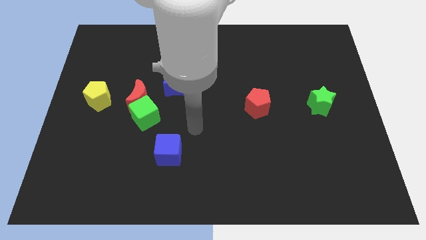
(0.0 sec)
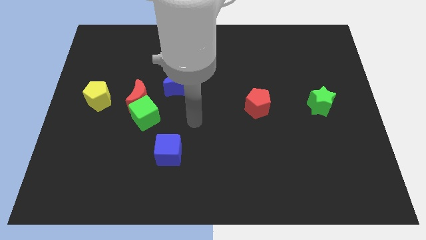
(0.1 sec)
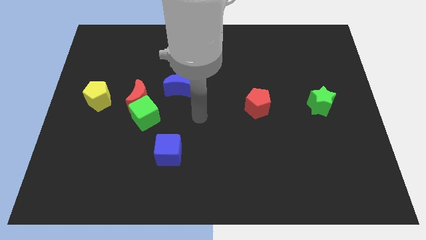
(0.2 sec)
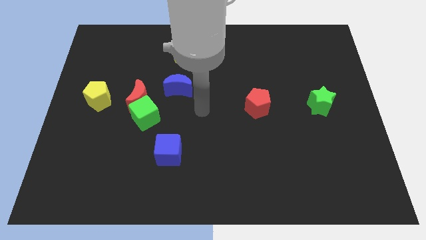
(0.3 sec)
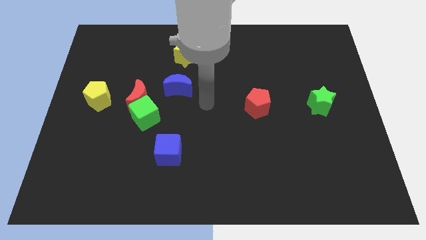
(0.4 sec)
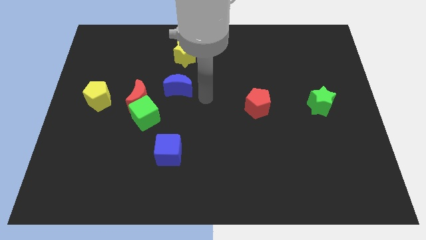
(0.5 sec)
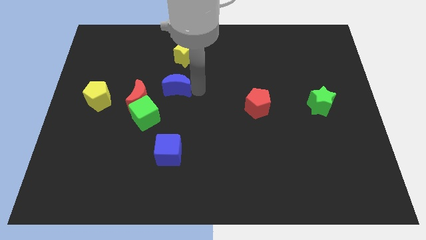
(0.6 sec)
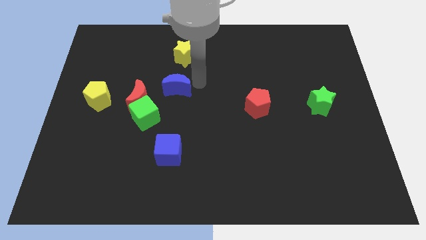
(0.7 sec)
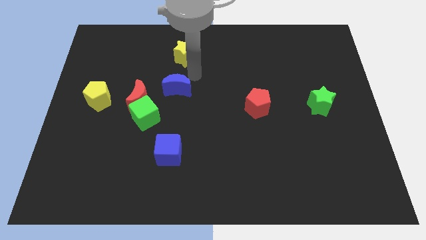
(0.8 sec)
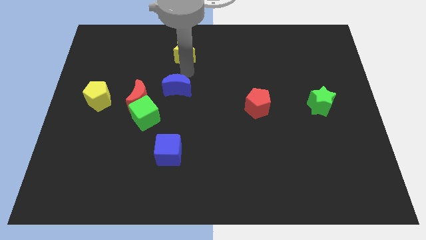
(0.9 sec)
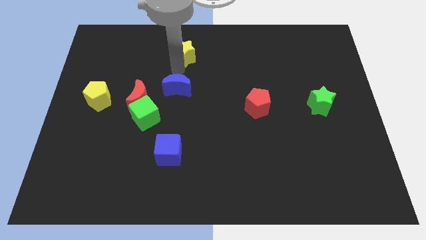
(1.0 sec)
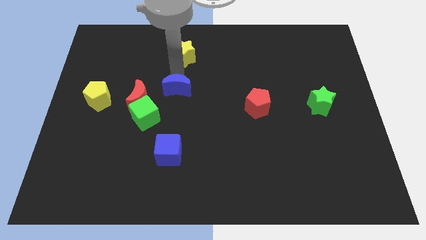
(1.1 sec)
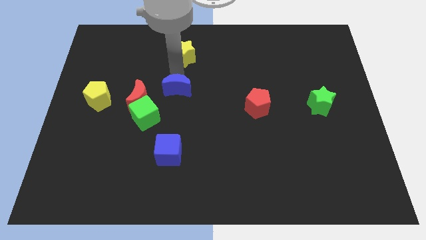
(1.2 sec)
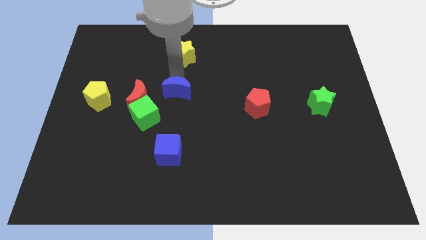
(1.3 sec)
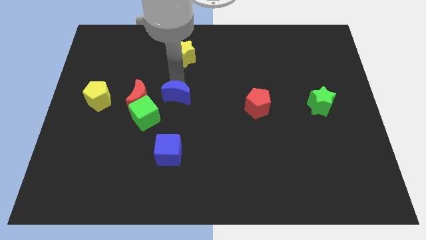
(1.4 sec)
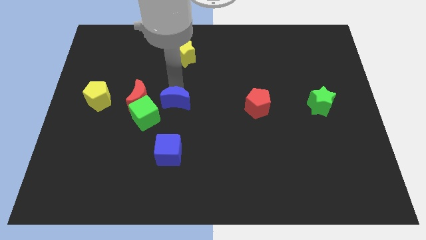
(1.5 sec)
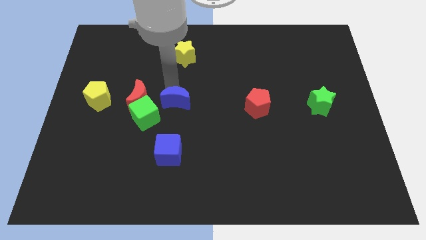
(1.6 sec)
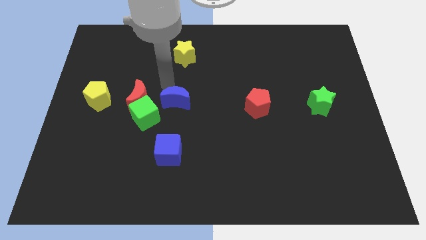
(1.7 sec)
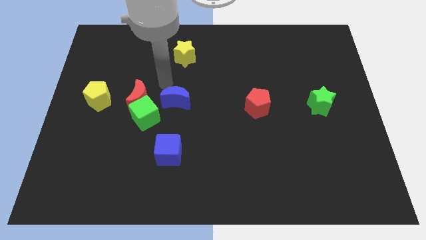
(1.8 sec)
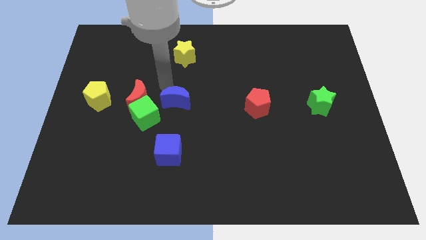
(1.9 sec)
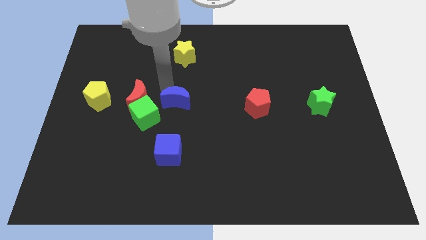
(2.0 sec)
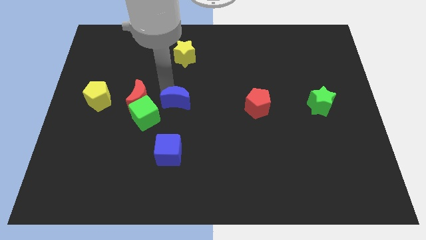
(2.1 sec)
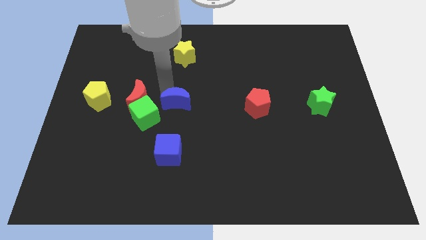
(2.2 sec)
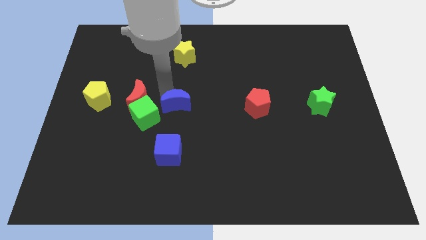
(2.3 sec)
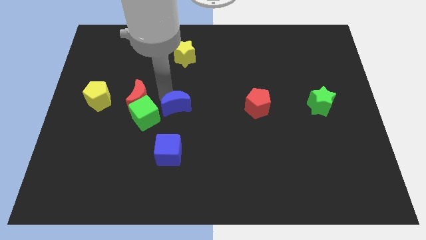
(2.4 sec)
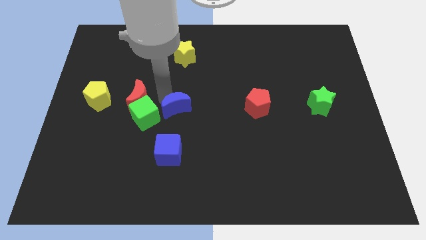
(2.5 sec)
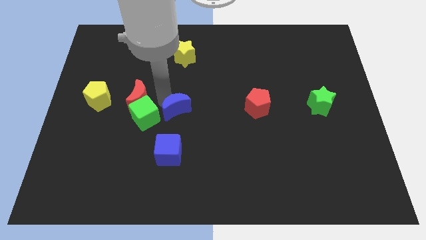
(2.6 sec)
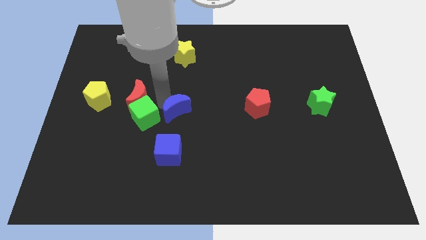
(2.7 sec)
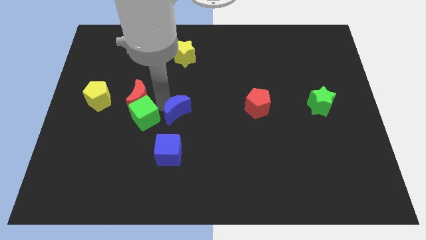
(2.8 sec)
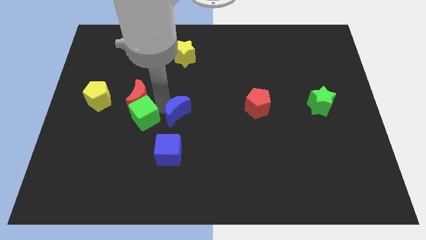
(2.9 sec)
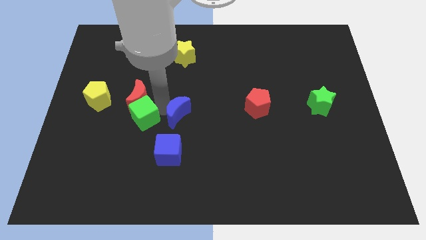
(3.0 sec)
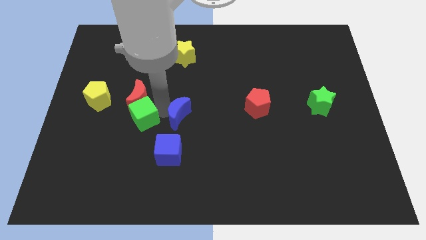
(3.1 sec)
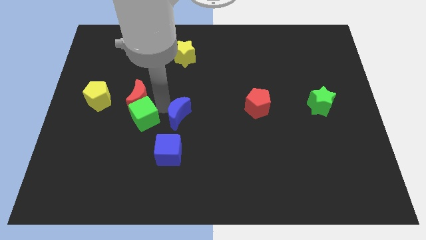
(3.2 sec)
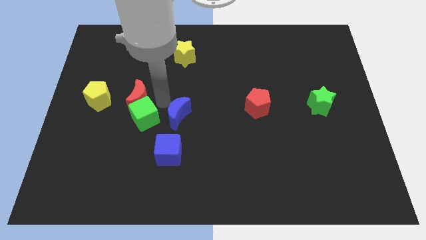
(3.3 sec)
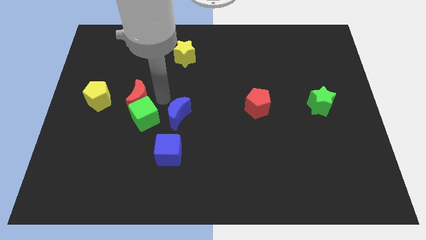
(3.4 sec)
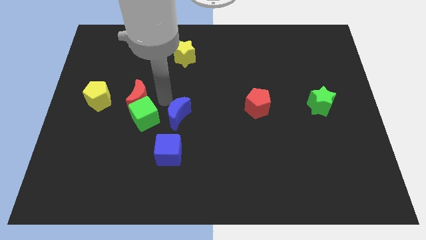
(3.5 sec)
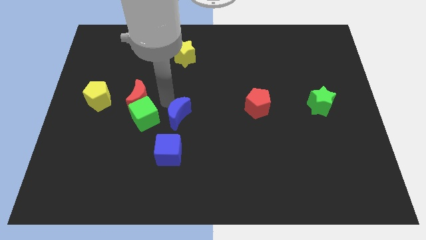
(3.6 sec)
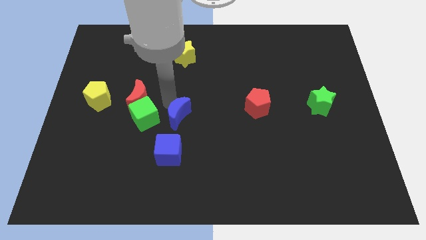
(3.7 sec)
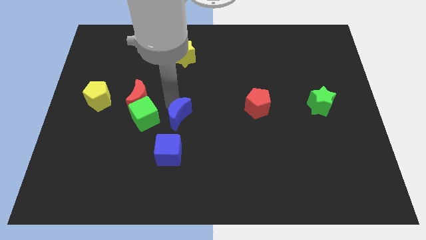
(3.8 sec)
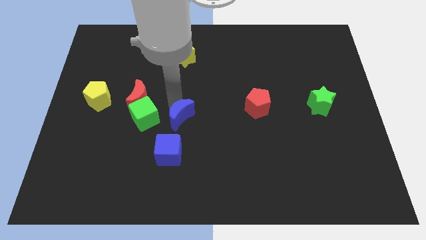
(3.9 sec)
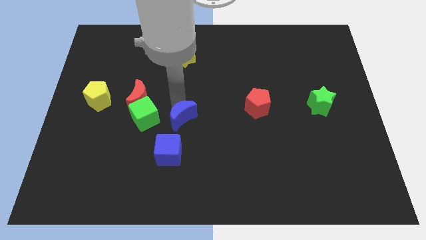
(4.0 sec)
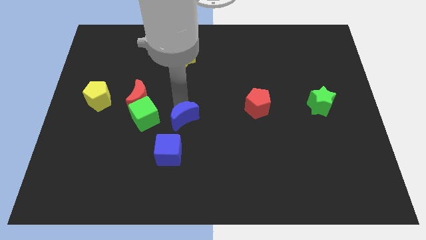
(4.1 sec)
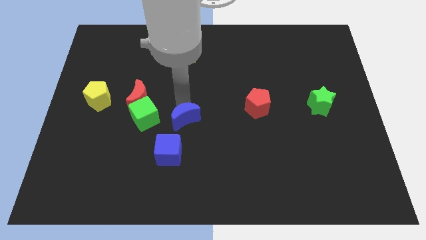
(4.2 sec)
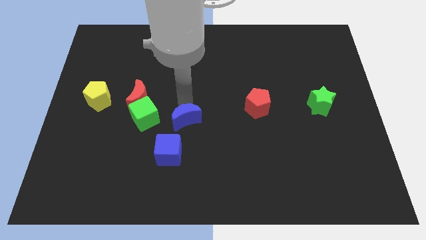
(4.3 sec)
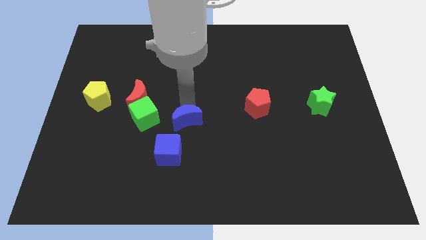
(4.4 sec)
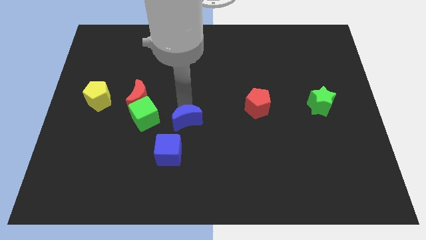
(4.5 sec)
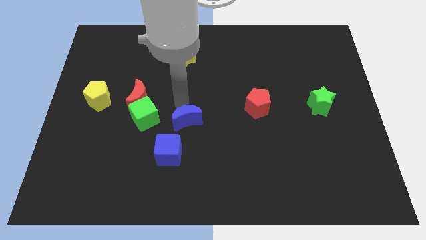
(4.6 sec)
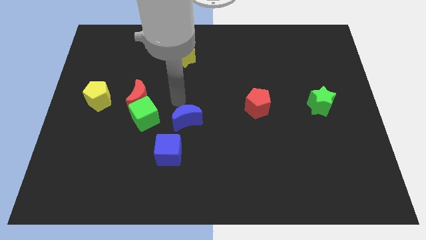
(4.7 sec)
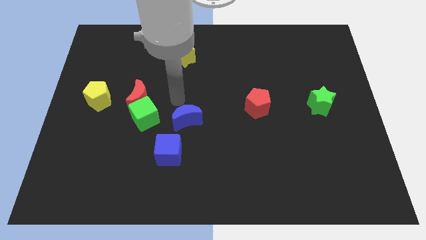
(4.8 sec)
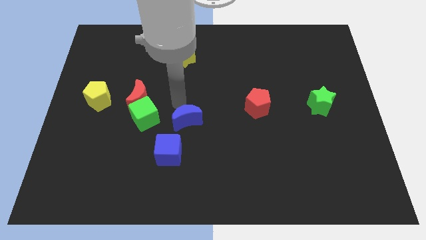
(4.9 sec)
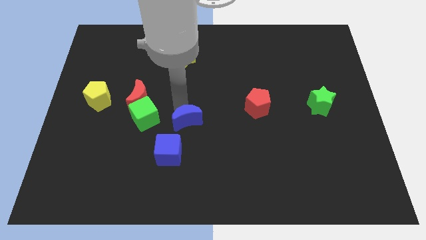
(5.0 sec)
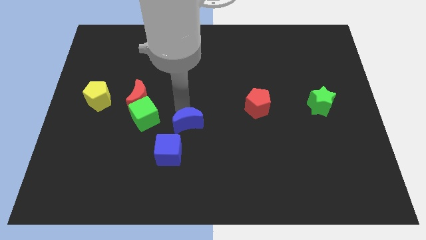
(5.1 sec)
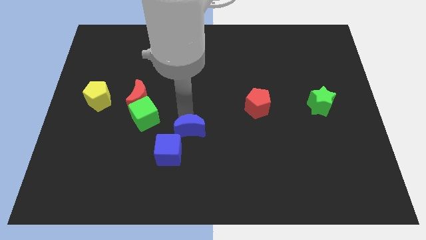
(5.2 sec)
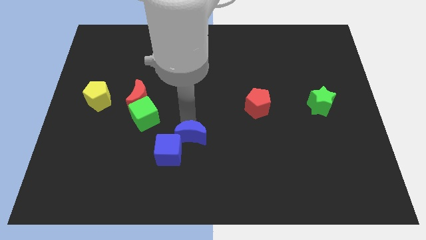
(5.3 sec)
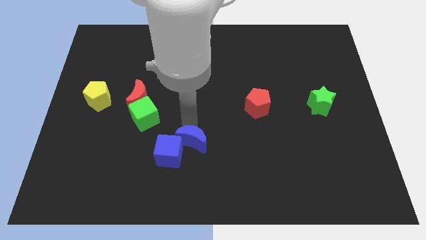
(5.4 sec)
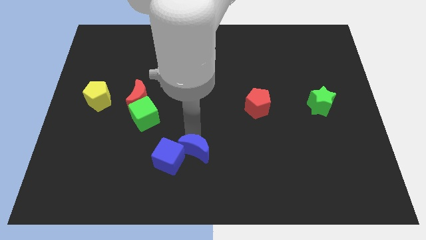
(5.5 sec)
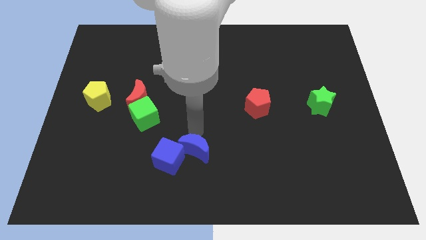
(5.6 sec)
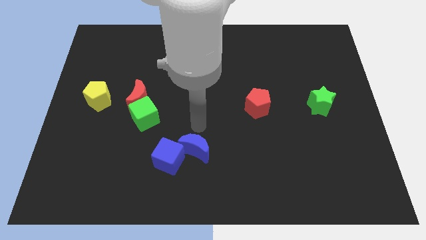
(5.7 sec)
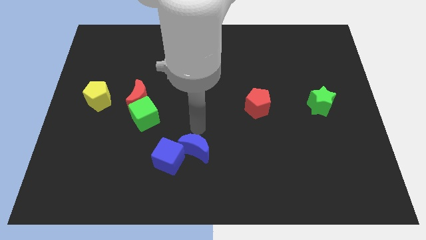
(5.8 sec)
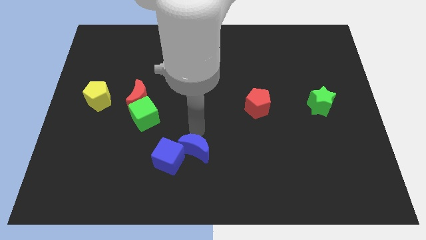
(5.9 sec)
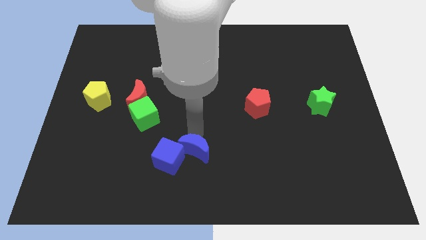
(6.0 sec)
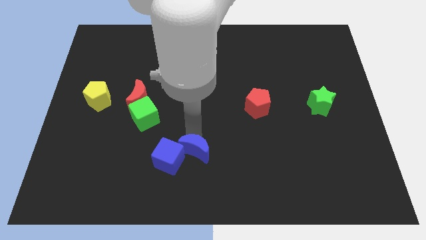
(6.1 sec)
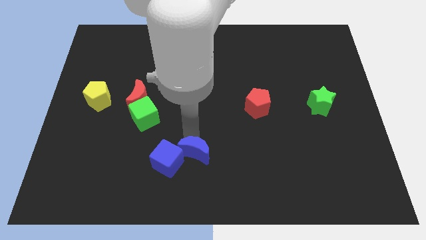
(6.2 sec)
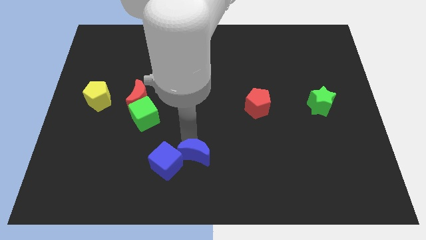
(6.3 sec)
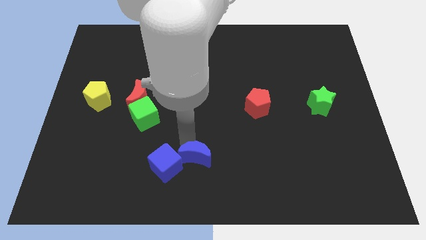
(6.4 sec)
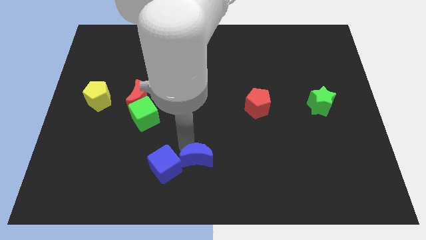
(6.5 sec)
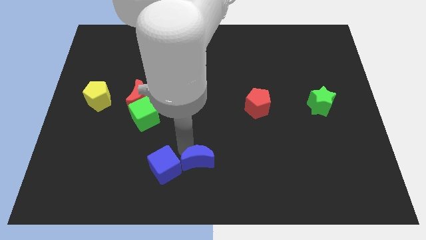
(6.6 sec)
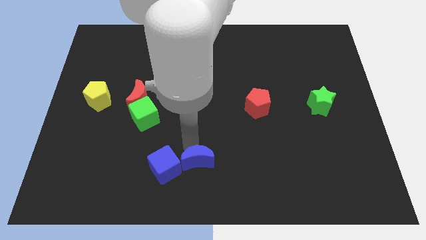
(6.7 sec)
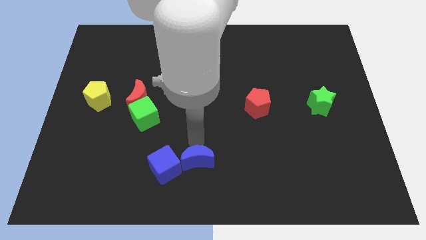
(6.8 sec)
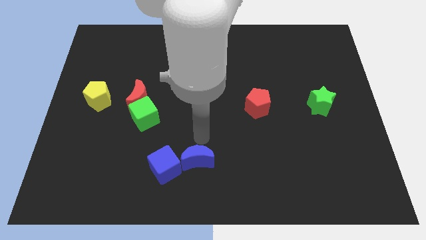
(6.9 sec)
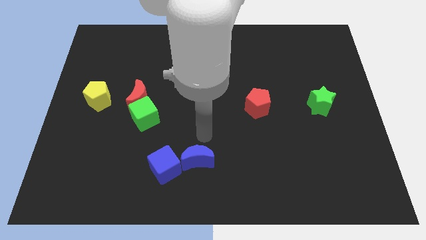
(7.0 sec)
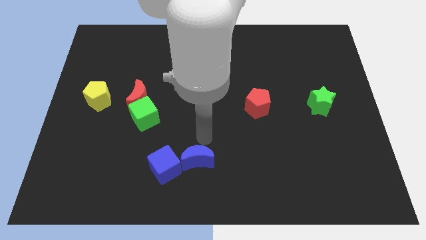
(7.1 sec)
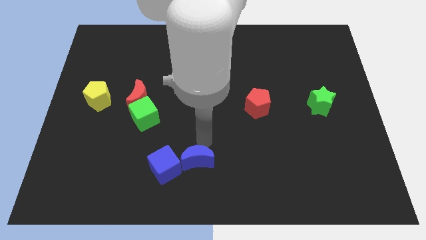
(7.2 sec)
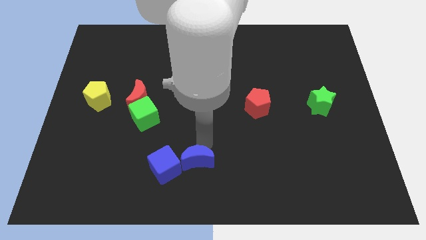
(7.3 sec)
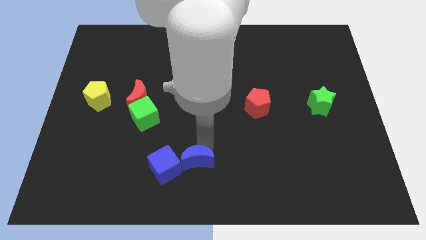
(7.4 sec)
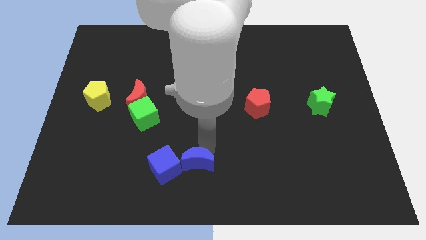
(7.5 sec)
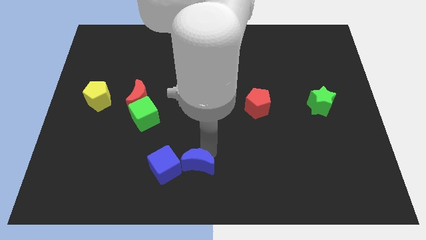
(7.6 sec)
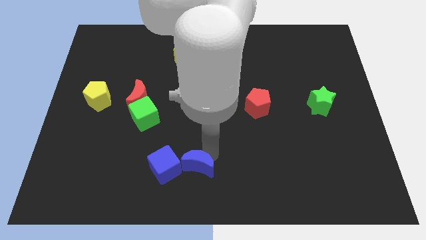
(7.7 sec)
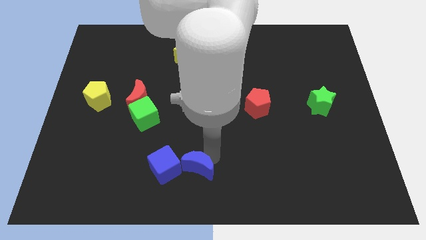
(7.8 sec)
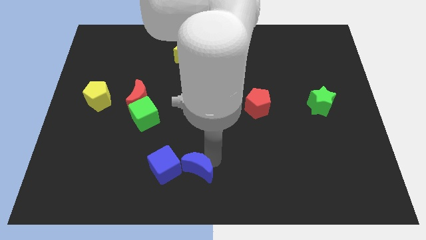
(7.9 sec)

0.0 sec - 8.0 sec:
move the blue moon diagonally down and to the right of the blue cube
